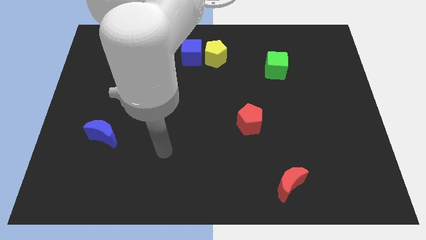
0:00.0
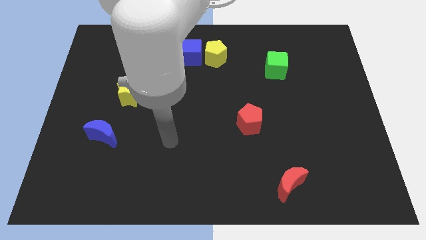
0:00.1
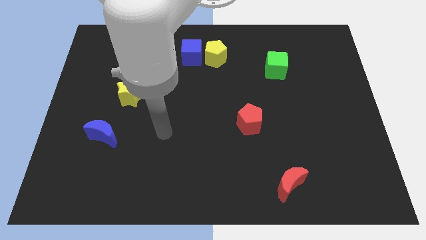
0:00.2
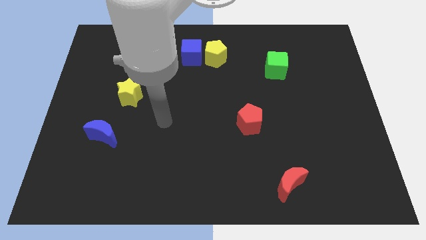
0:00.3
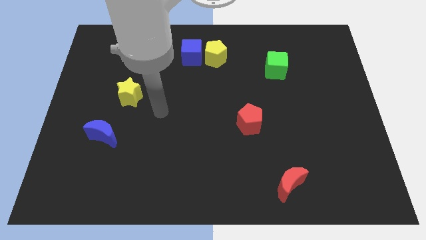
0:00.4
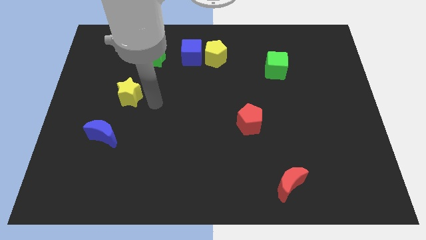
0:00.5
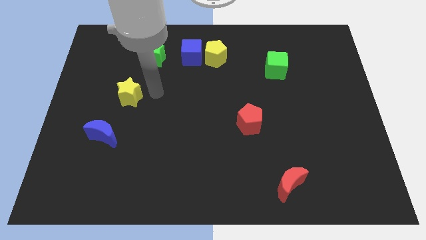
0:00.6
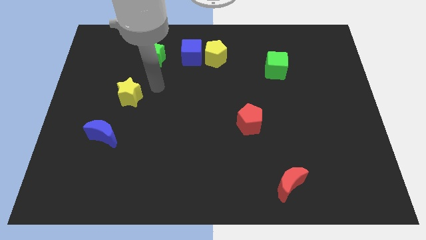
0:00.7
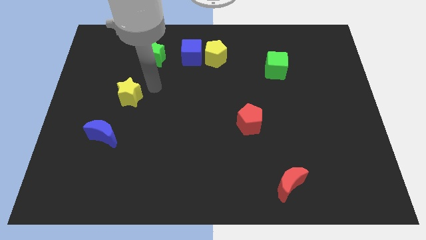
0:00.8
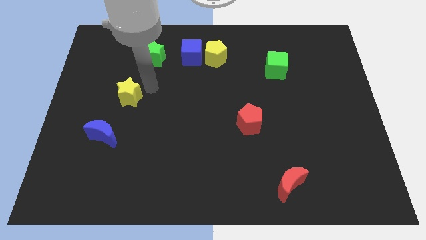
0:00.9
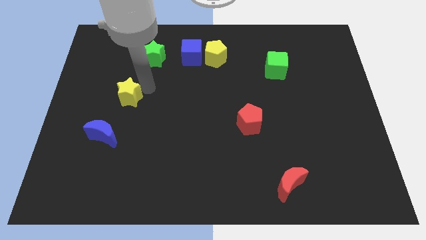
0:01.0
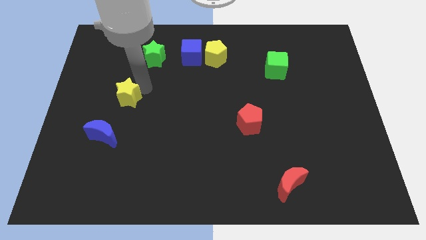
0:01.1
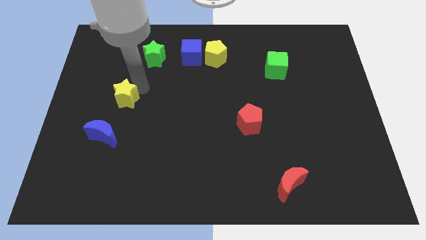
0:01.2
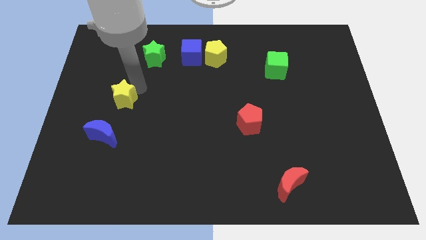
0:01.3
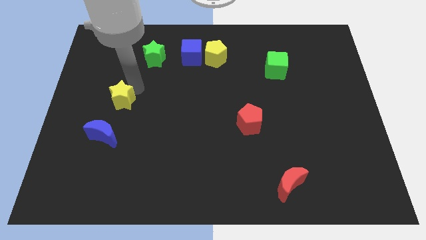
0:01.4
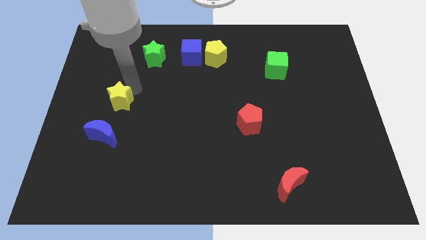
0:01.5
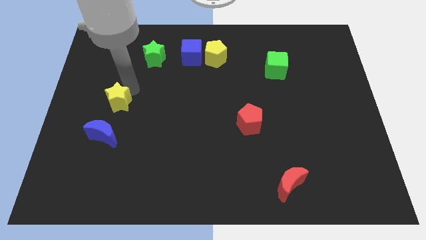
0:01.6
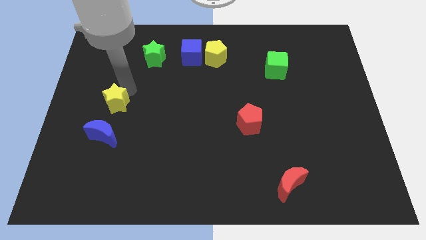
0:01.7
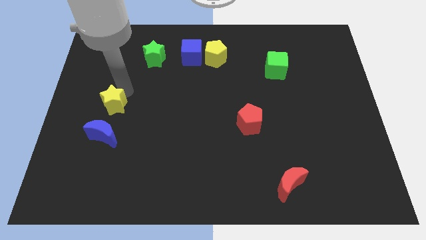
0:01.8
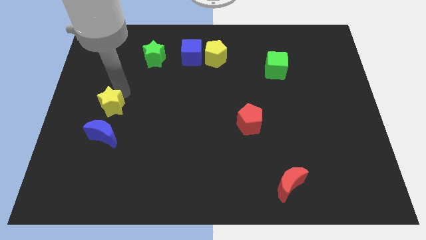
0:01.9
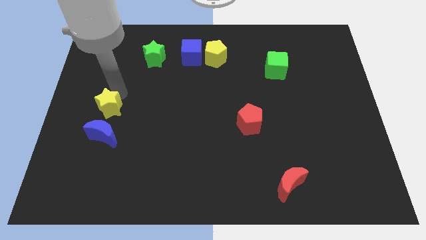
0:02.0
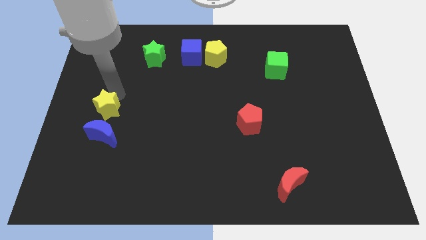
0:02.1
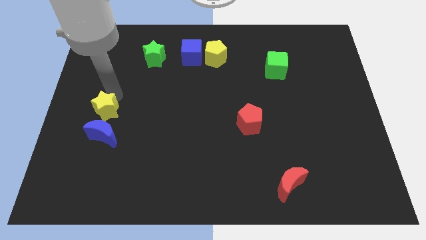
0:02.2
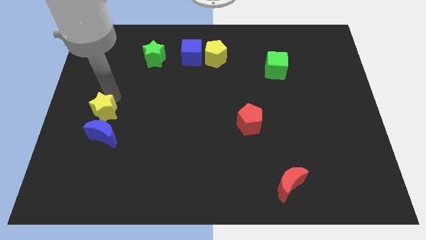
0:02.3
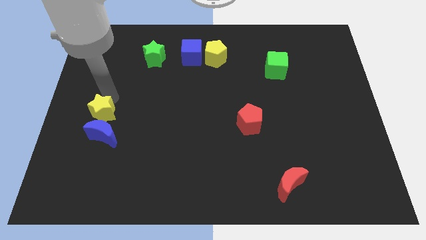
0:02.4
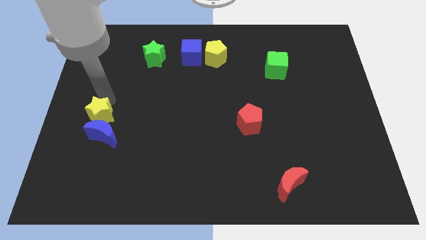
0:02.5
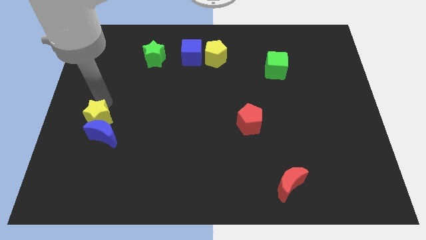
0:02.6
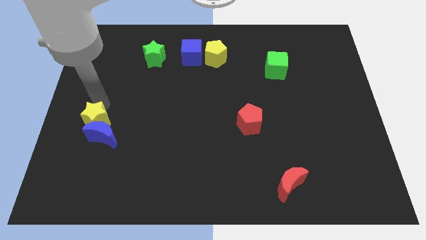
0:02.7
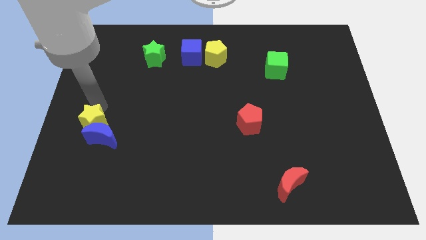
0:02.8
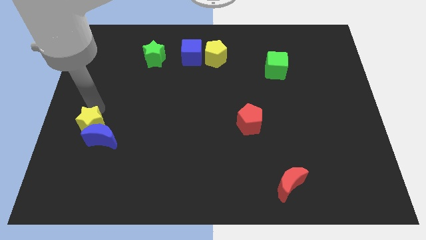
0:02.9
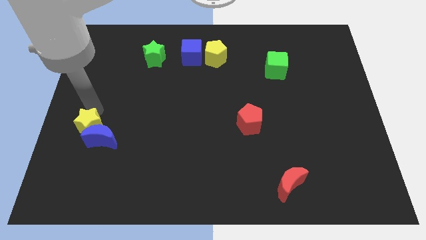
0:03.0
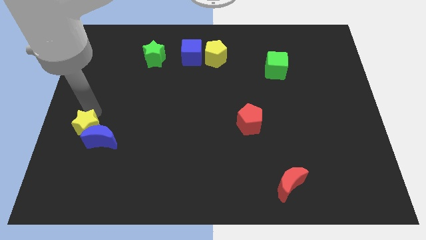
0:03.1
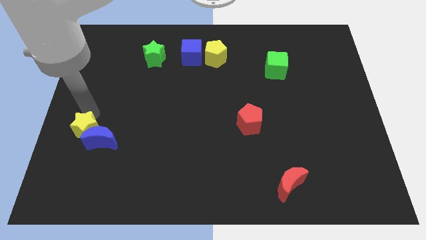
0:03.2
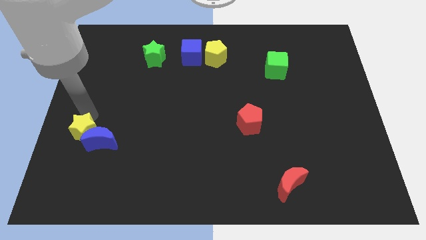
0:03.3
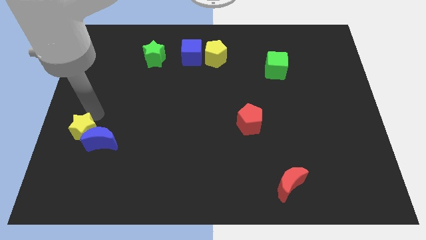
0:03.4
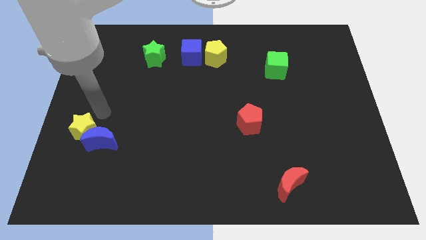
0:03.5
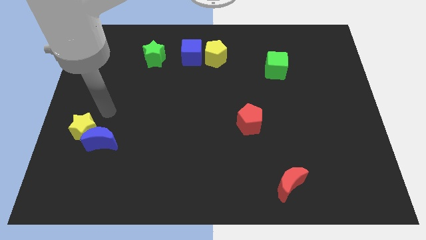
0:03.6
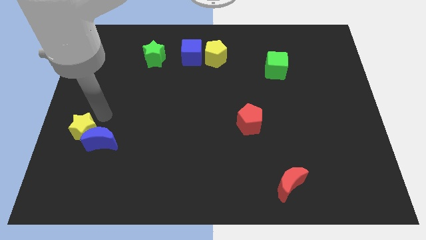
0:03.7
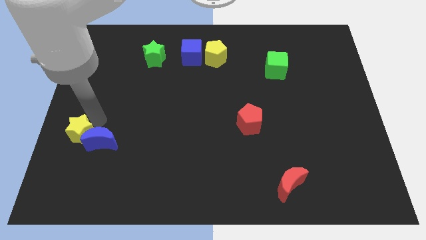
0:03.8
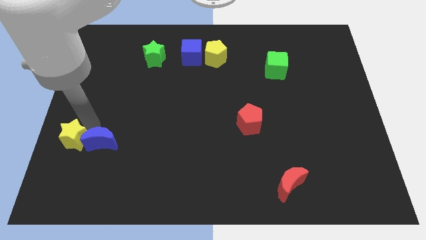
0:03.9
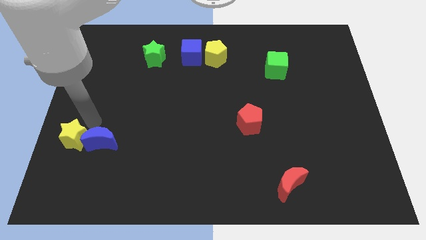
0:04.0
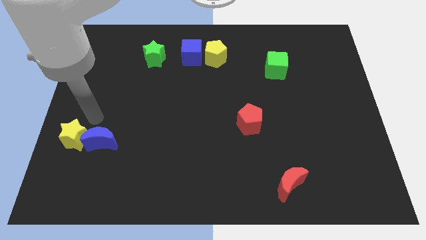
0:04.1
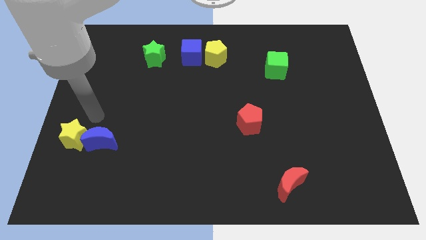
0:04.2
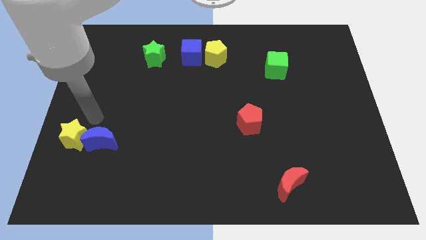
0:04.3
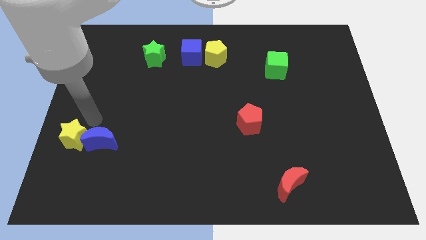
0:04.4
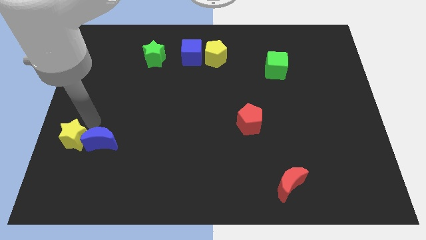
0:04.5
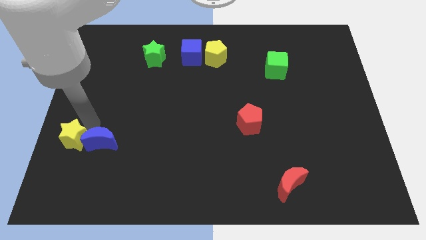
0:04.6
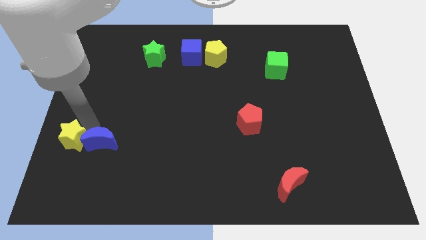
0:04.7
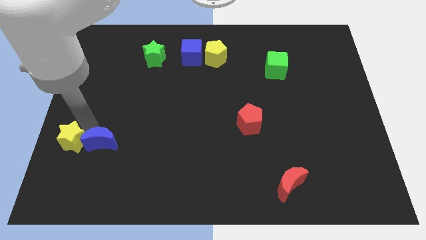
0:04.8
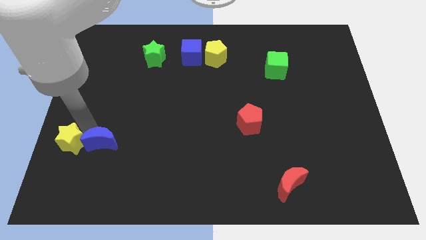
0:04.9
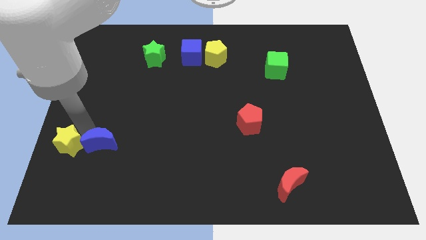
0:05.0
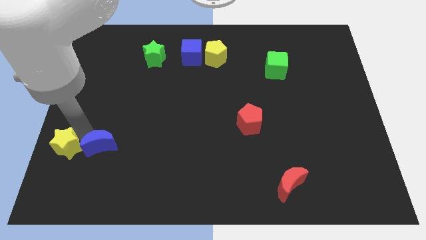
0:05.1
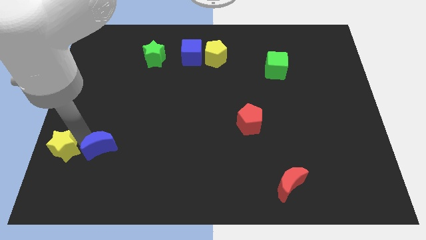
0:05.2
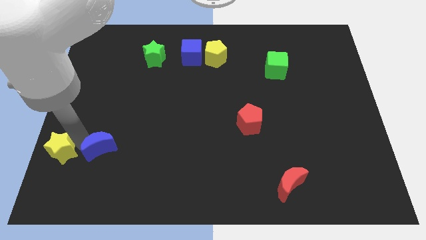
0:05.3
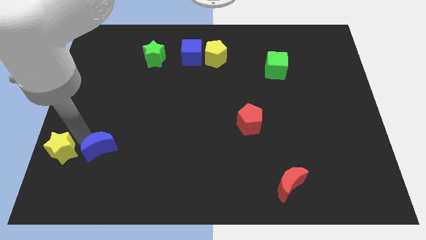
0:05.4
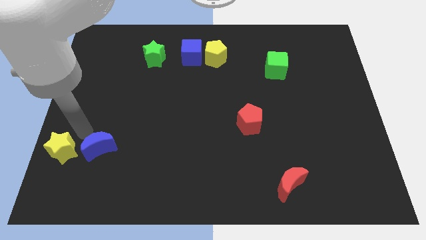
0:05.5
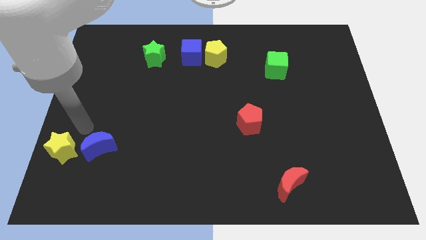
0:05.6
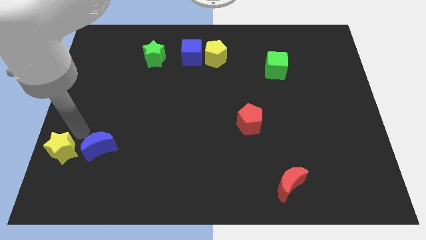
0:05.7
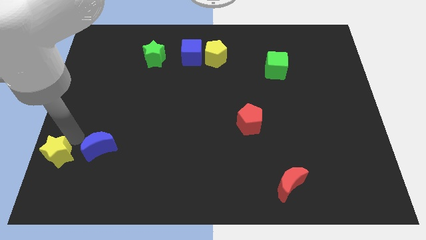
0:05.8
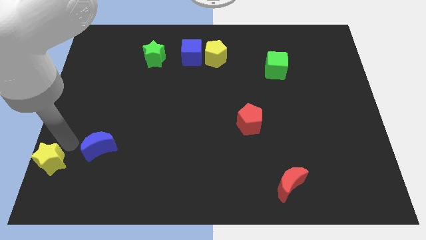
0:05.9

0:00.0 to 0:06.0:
move the yellow star to the bottom left of the board

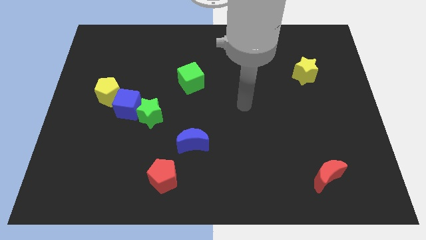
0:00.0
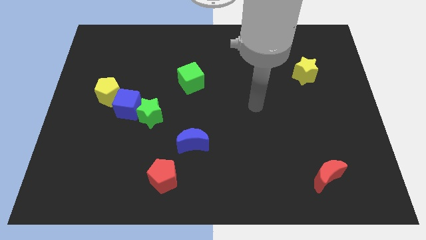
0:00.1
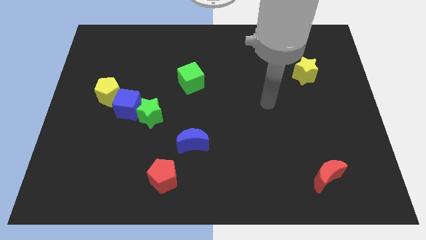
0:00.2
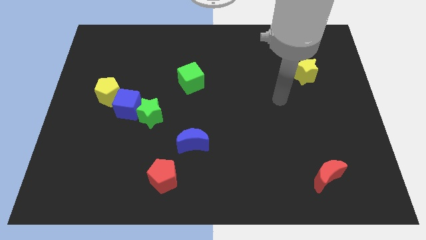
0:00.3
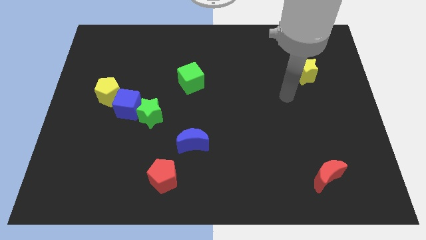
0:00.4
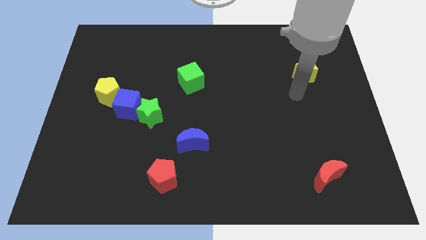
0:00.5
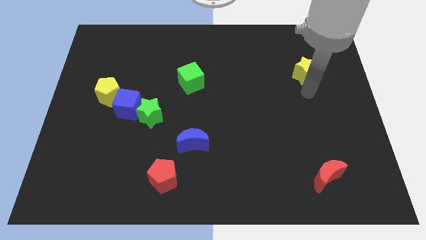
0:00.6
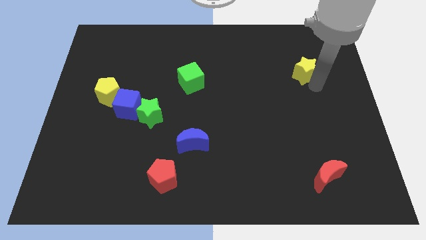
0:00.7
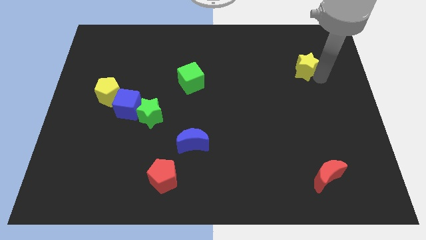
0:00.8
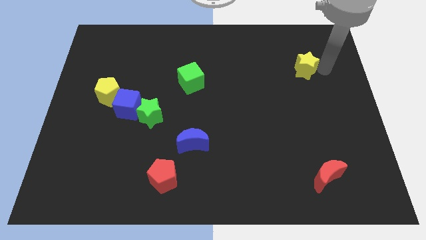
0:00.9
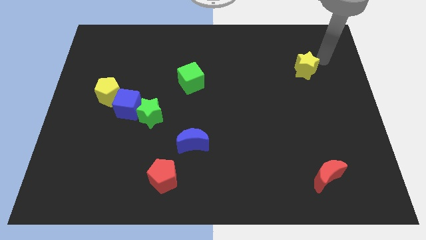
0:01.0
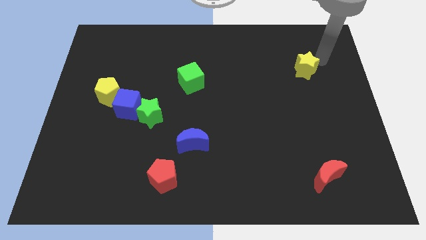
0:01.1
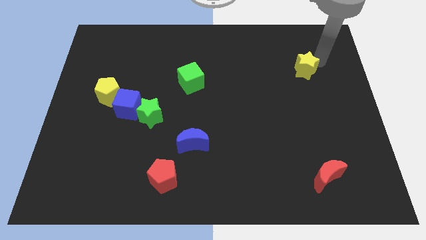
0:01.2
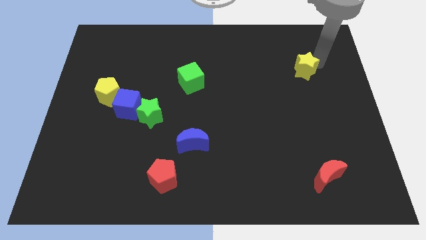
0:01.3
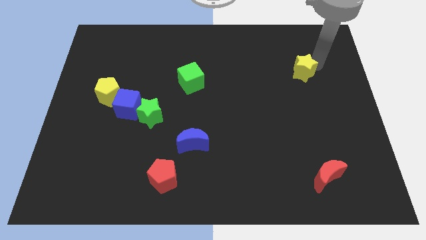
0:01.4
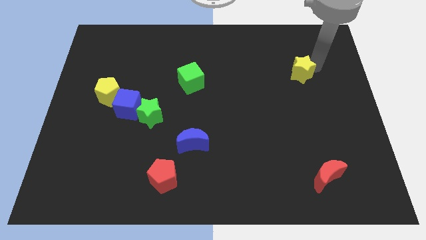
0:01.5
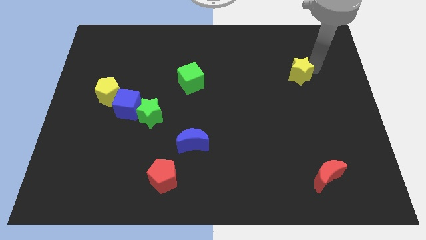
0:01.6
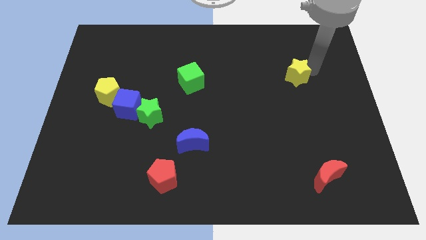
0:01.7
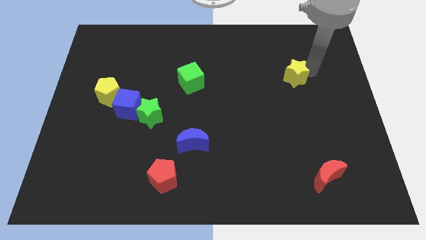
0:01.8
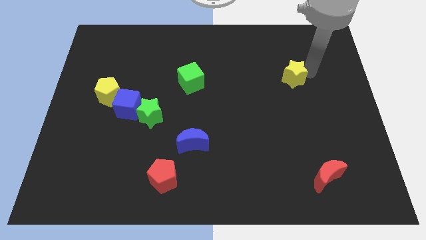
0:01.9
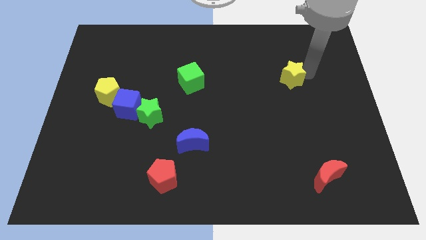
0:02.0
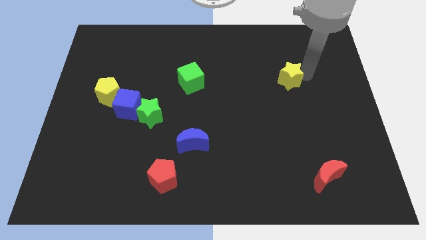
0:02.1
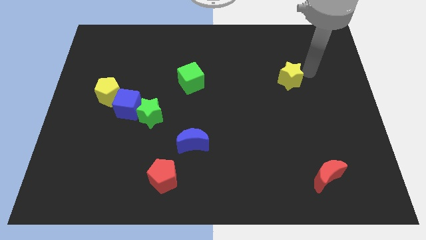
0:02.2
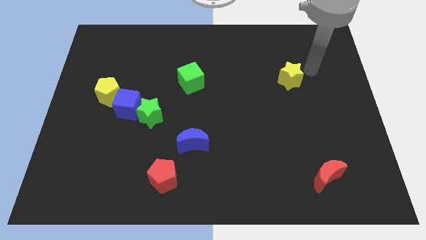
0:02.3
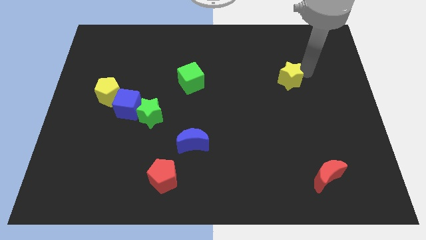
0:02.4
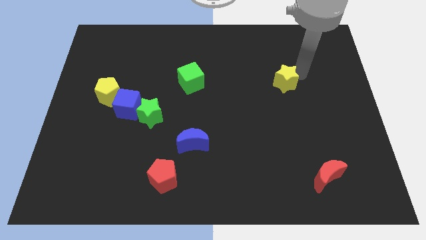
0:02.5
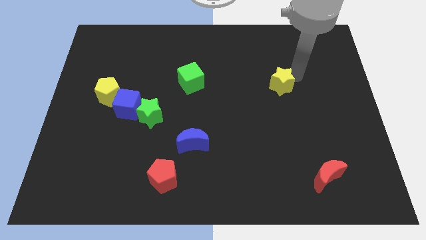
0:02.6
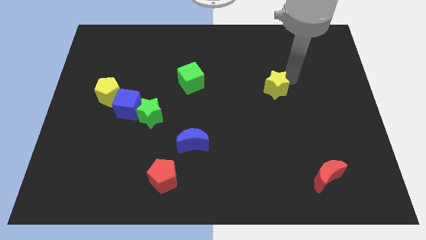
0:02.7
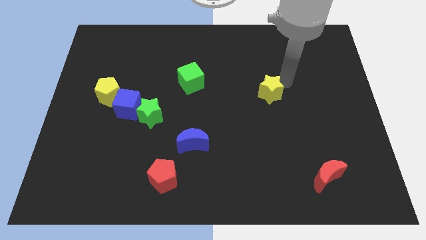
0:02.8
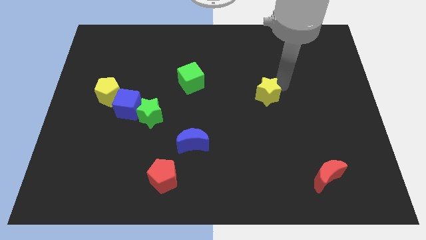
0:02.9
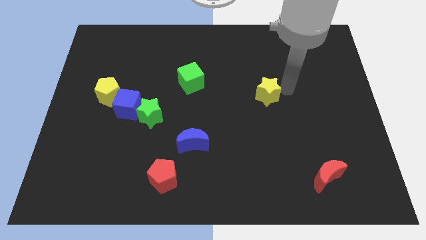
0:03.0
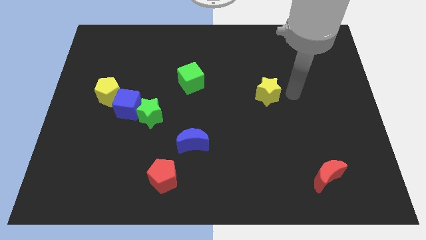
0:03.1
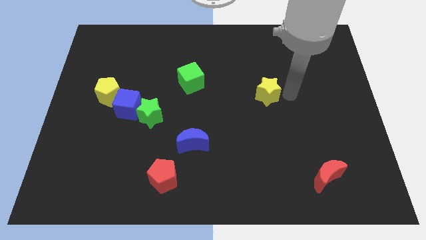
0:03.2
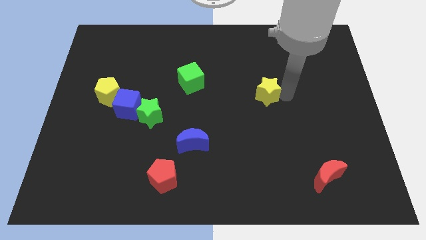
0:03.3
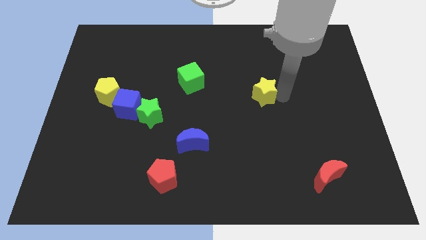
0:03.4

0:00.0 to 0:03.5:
move the yellow star to the center of the board
